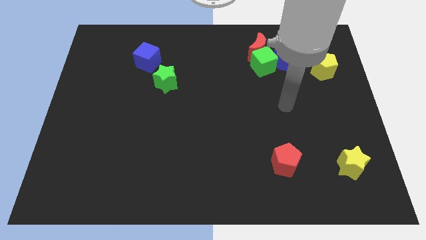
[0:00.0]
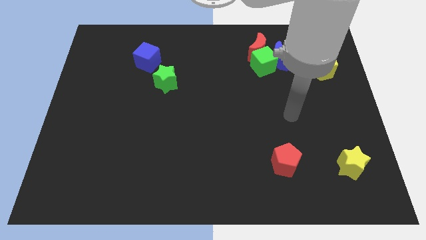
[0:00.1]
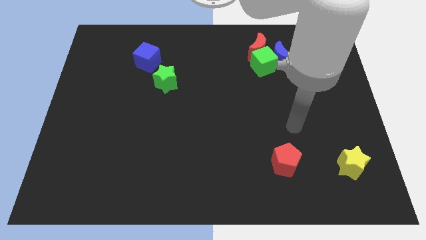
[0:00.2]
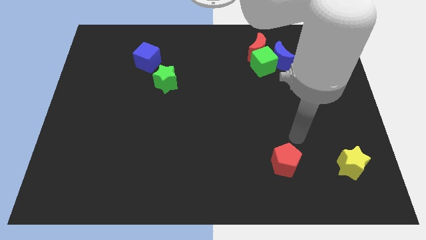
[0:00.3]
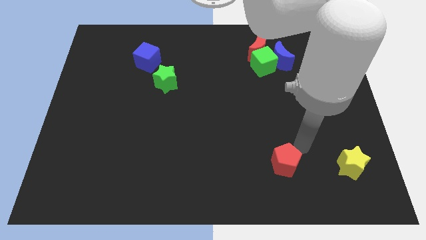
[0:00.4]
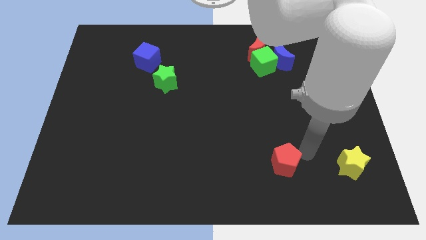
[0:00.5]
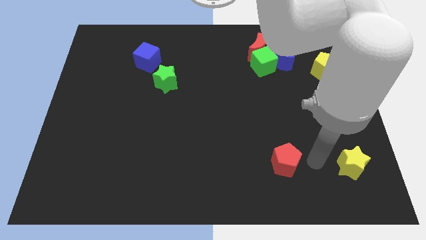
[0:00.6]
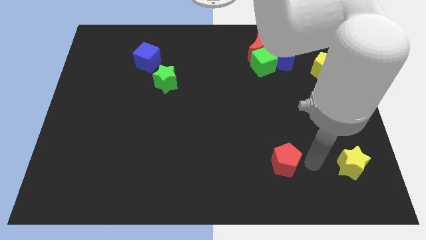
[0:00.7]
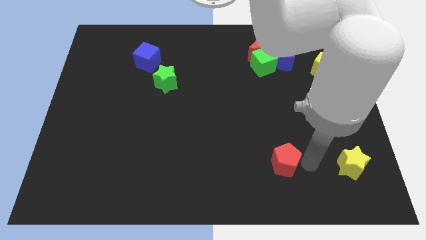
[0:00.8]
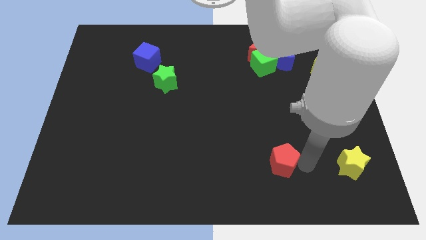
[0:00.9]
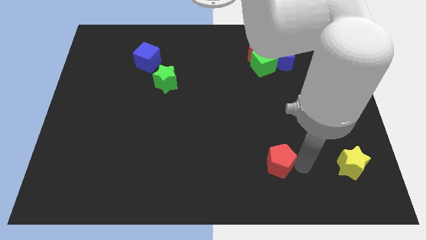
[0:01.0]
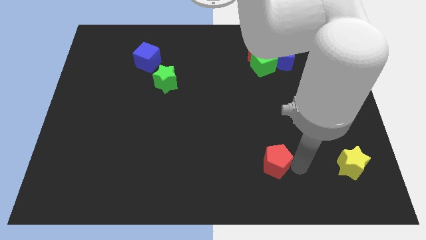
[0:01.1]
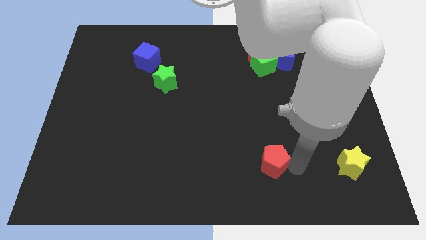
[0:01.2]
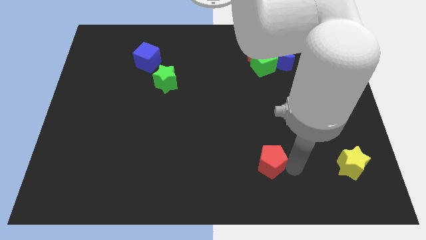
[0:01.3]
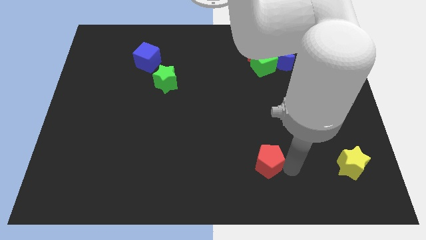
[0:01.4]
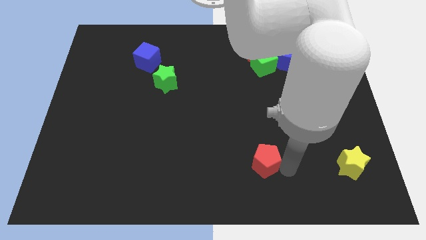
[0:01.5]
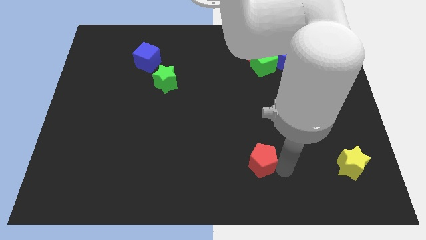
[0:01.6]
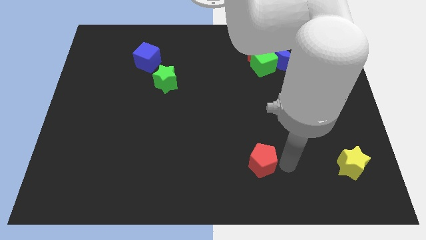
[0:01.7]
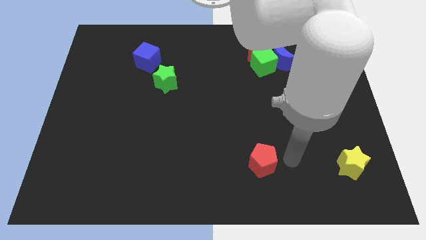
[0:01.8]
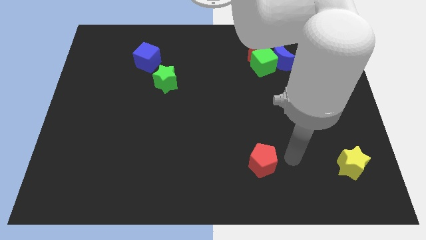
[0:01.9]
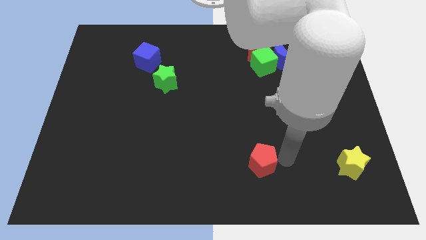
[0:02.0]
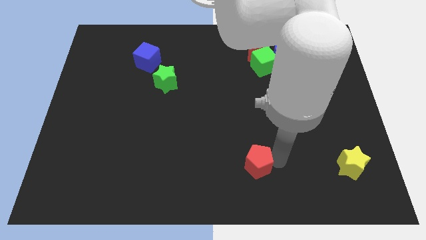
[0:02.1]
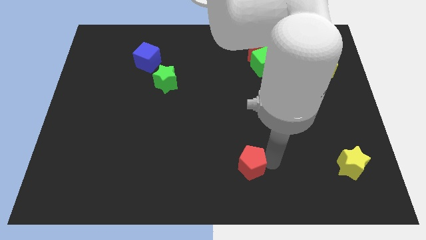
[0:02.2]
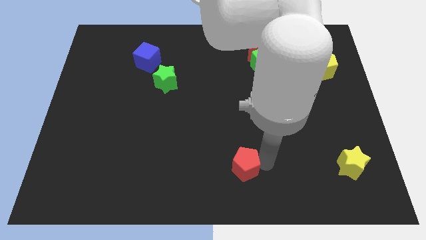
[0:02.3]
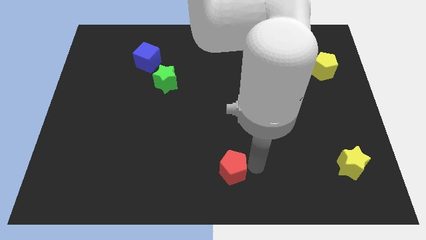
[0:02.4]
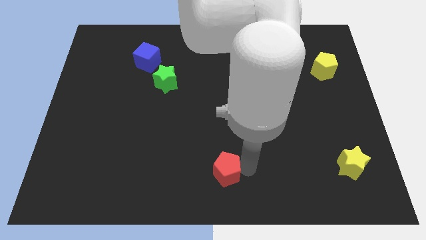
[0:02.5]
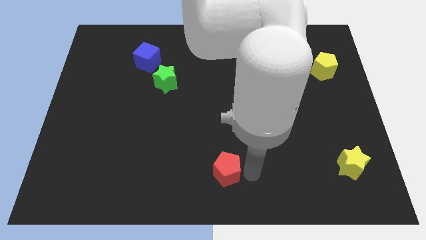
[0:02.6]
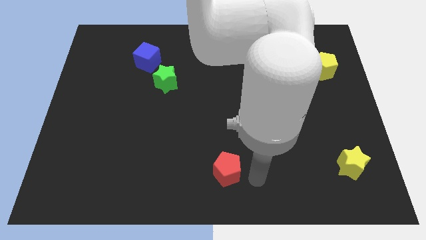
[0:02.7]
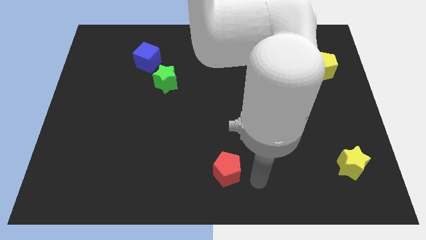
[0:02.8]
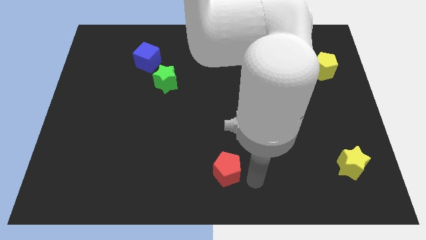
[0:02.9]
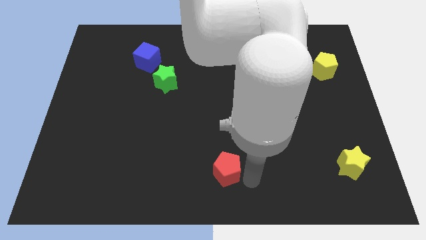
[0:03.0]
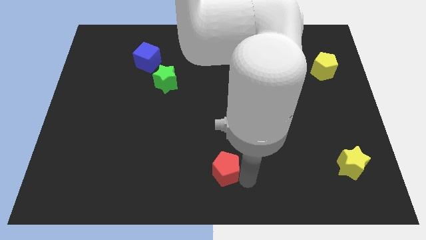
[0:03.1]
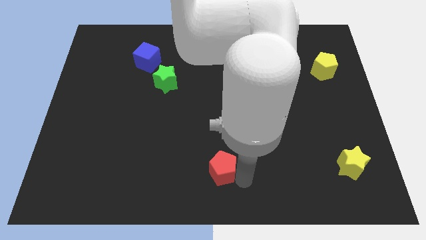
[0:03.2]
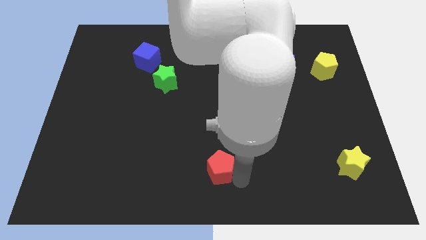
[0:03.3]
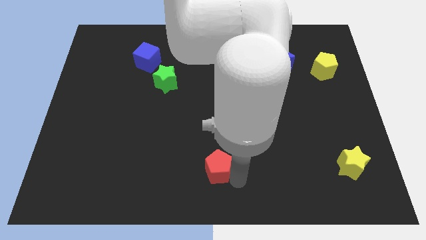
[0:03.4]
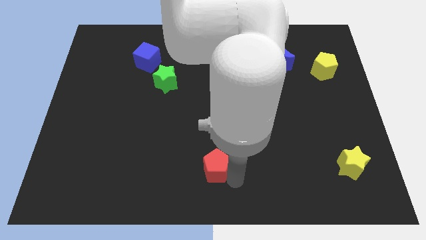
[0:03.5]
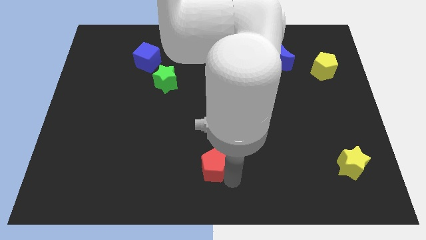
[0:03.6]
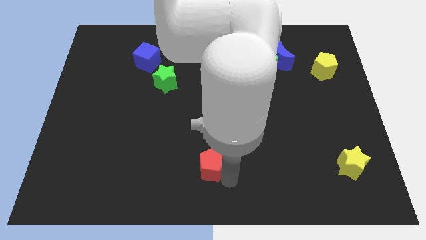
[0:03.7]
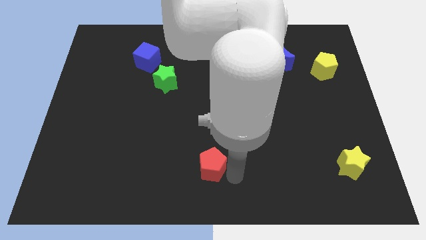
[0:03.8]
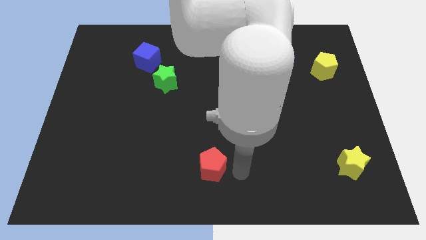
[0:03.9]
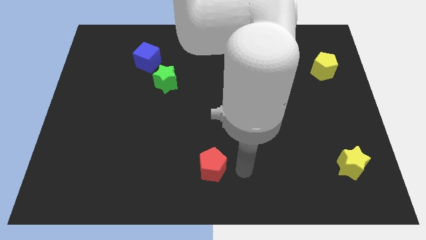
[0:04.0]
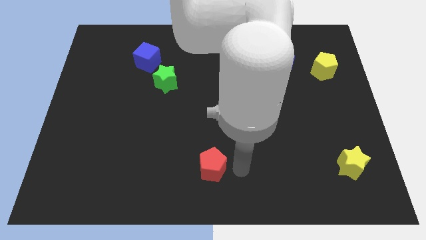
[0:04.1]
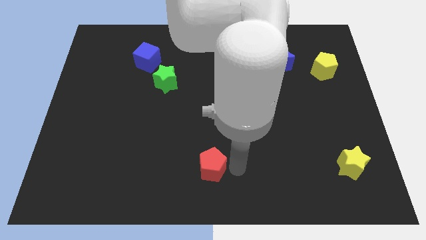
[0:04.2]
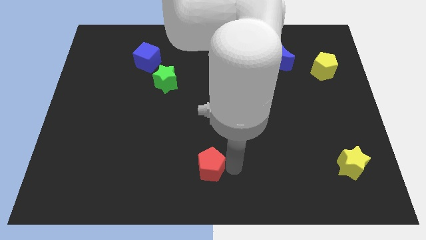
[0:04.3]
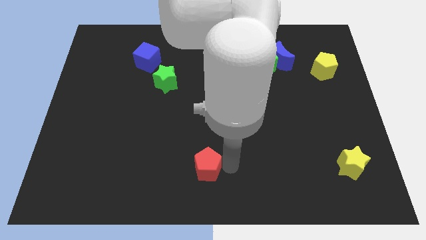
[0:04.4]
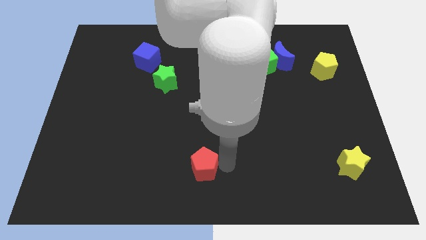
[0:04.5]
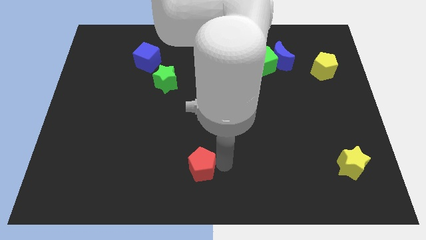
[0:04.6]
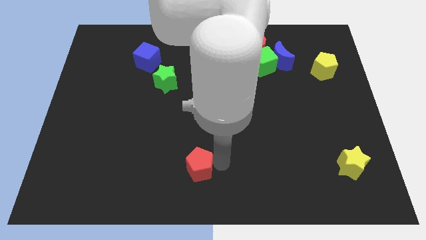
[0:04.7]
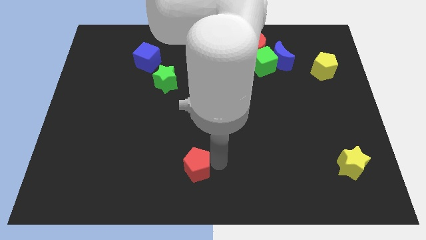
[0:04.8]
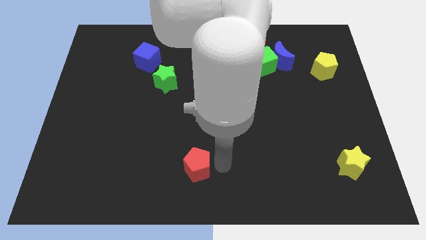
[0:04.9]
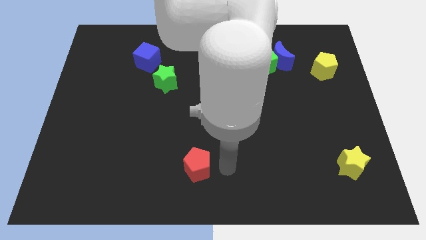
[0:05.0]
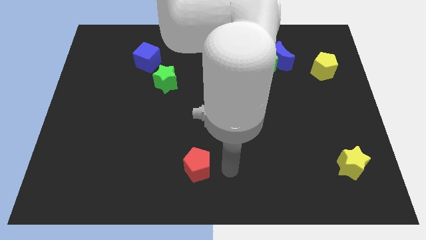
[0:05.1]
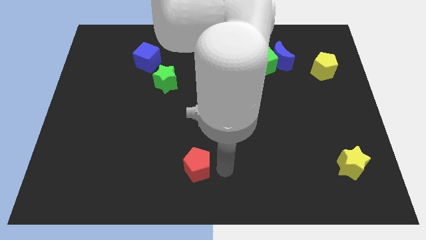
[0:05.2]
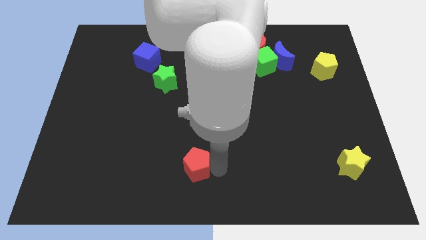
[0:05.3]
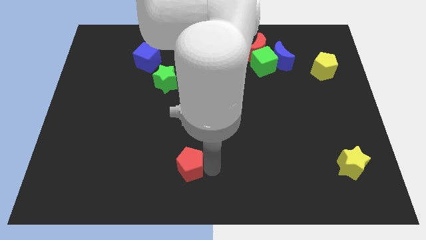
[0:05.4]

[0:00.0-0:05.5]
push the red pentagon to the left

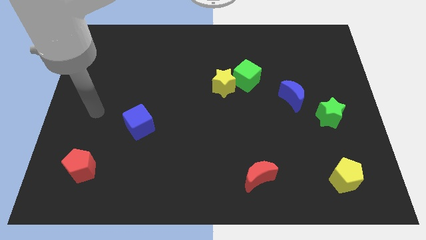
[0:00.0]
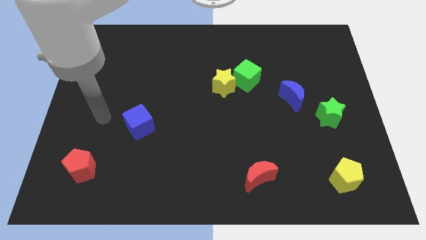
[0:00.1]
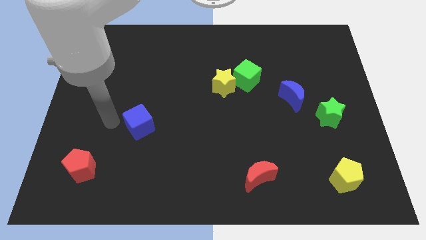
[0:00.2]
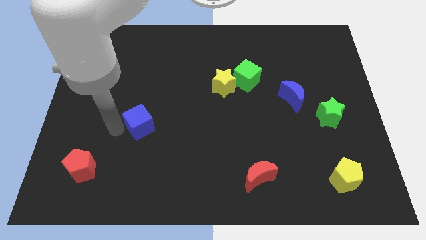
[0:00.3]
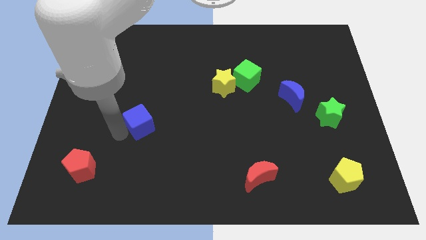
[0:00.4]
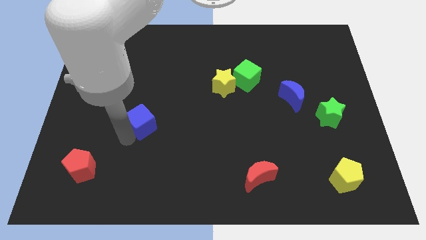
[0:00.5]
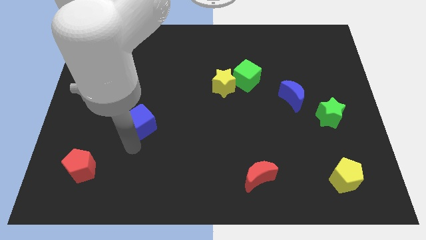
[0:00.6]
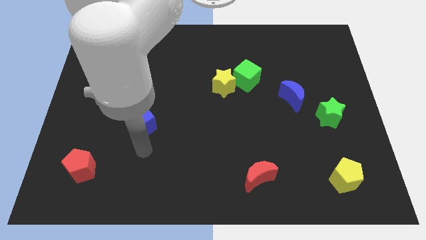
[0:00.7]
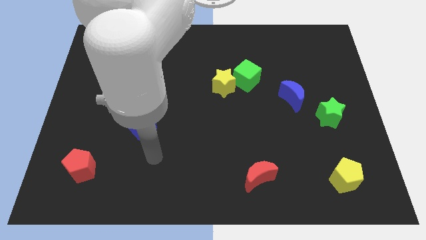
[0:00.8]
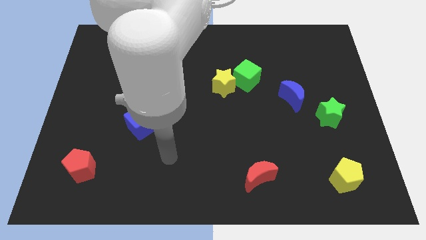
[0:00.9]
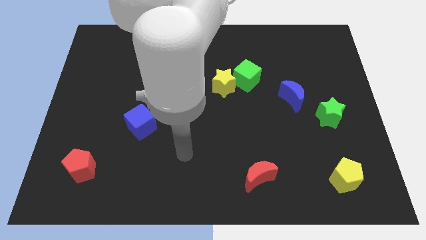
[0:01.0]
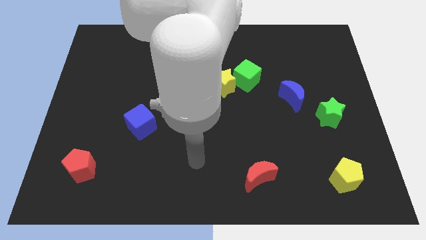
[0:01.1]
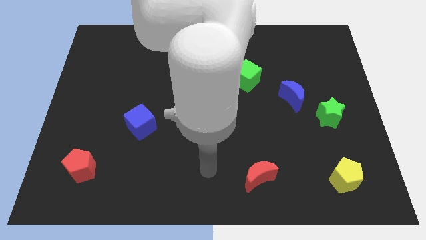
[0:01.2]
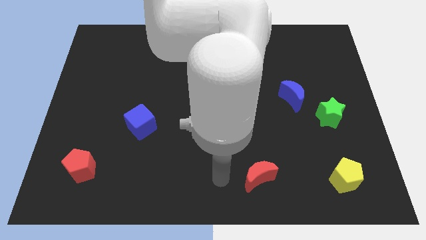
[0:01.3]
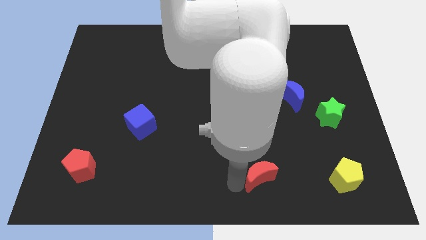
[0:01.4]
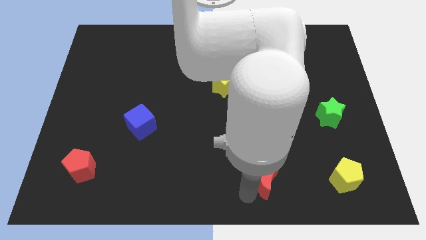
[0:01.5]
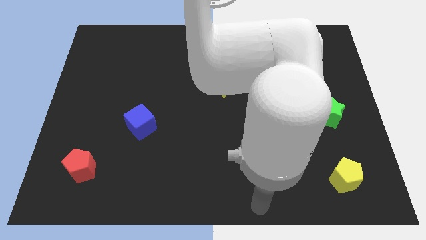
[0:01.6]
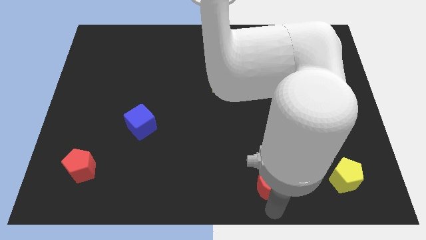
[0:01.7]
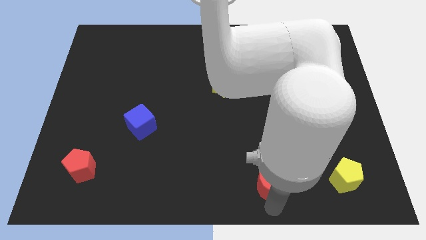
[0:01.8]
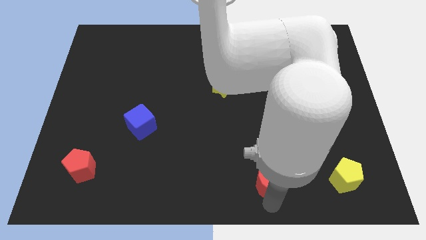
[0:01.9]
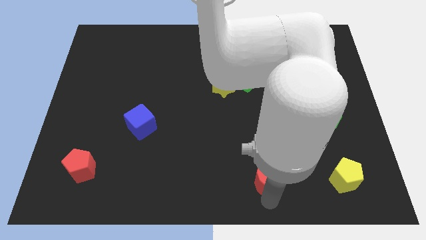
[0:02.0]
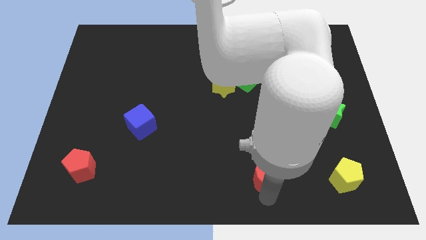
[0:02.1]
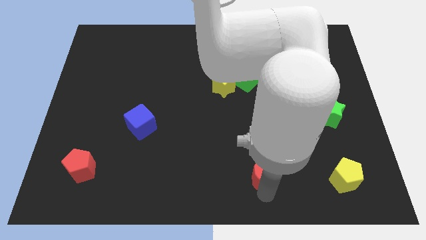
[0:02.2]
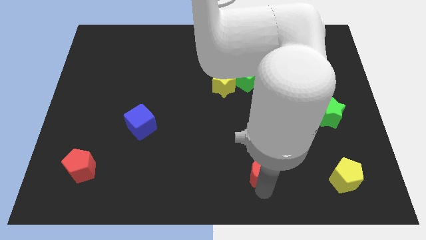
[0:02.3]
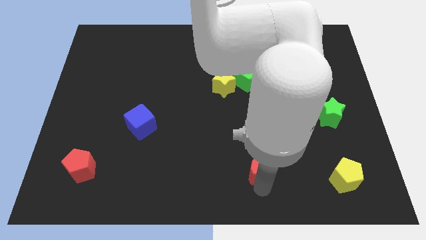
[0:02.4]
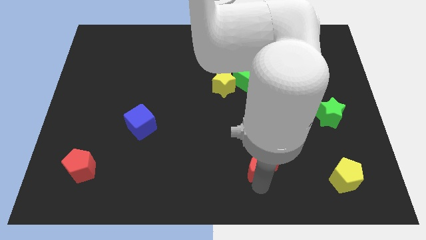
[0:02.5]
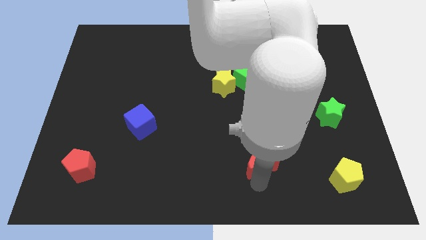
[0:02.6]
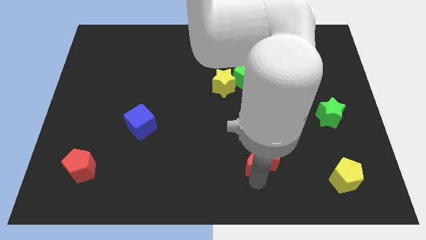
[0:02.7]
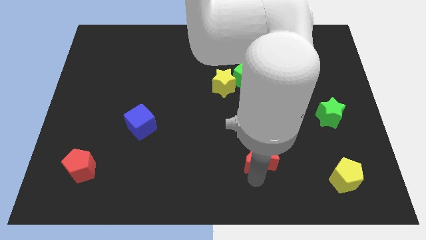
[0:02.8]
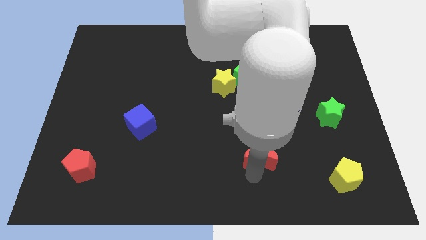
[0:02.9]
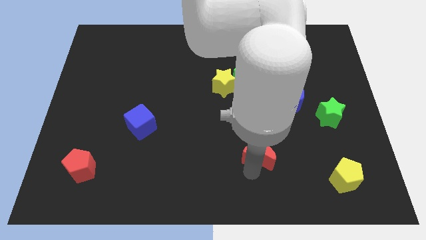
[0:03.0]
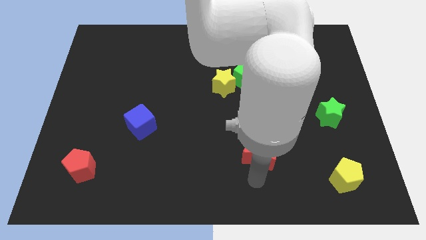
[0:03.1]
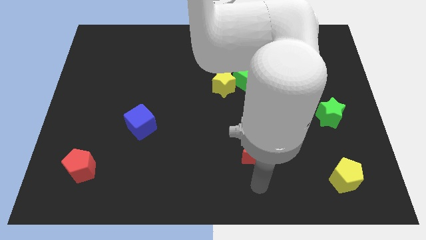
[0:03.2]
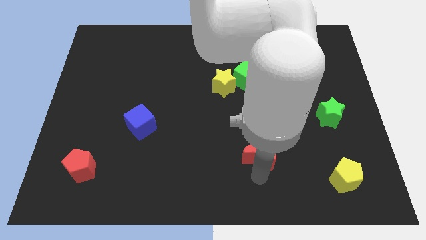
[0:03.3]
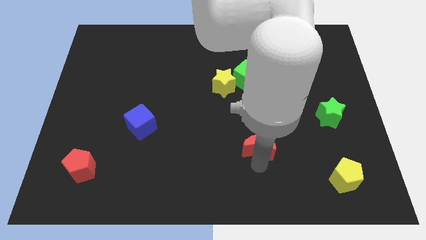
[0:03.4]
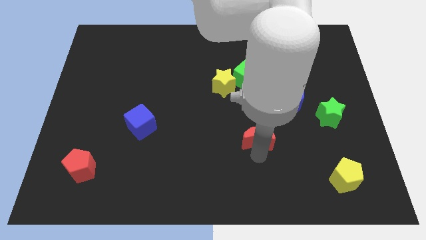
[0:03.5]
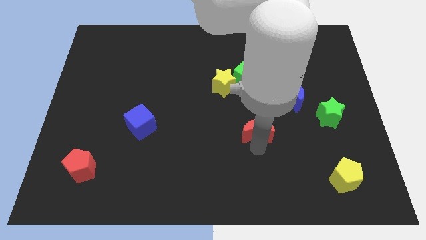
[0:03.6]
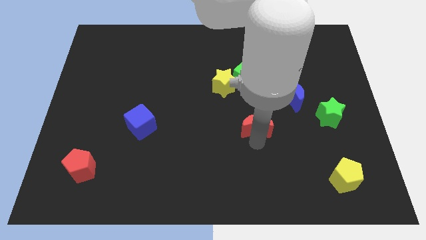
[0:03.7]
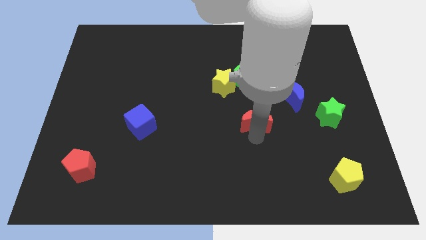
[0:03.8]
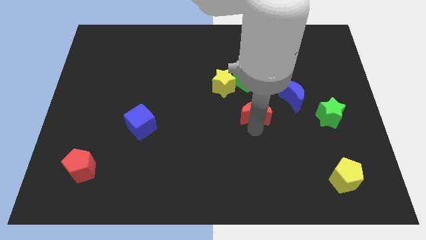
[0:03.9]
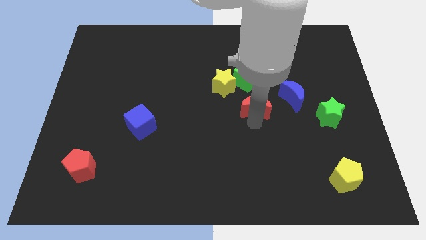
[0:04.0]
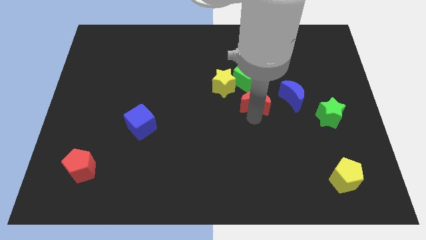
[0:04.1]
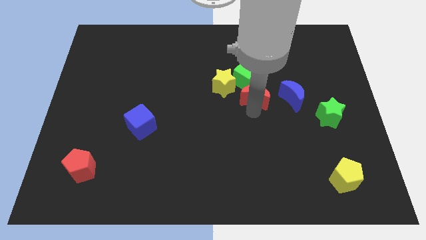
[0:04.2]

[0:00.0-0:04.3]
move the red moon upwards
